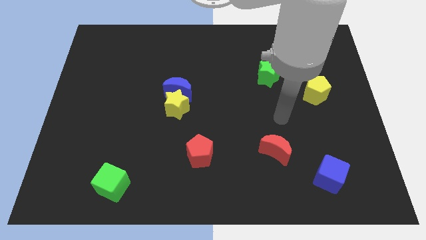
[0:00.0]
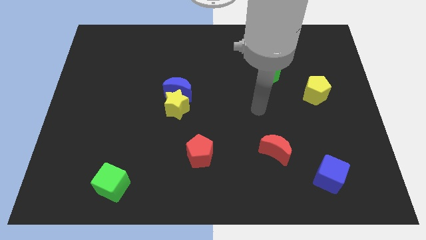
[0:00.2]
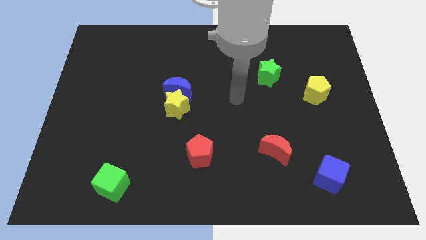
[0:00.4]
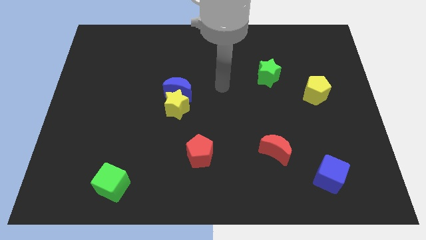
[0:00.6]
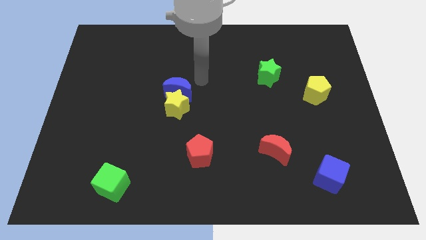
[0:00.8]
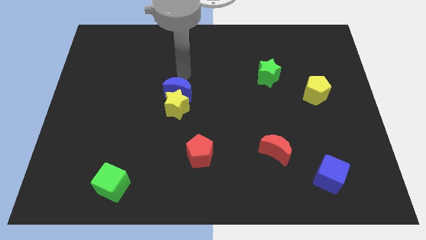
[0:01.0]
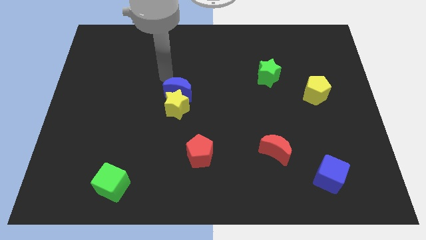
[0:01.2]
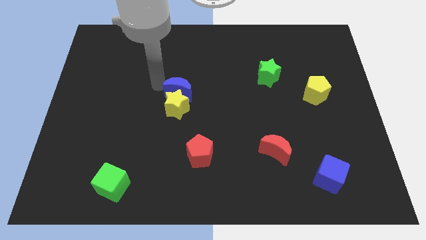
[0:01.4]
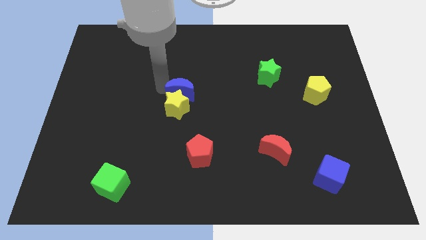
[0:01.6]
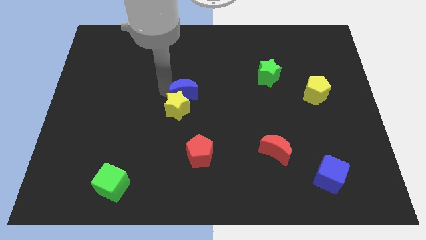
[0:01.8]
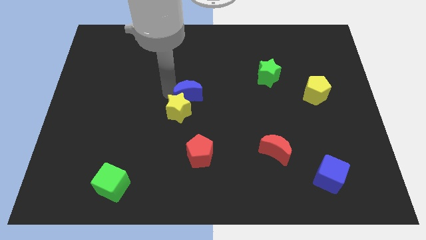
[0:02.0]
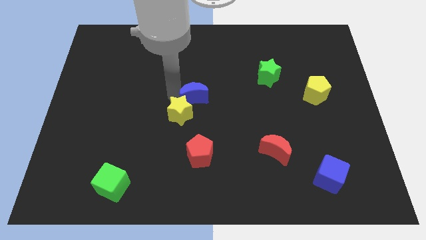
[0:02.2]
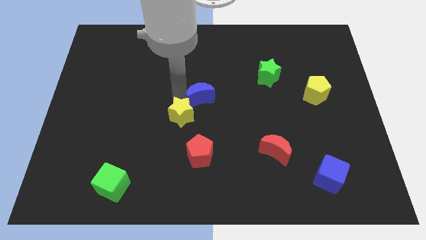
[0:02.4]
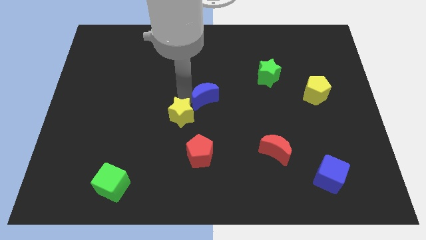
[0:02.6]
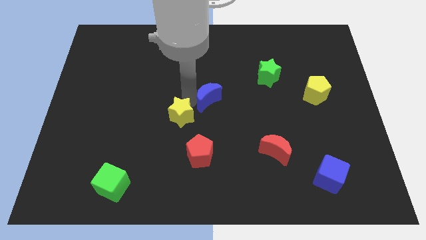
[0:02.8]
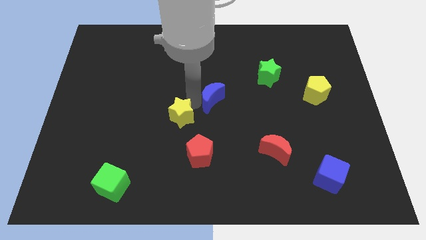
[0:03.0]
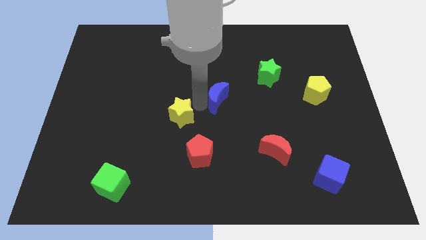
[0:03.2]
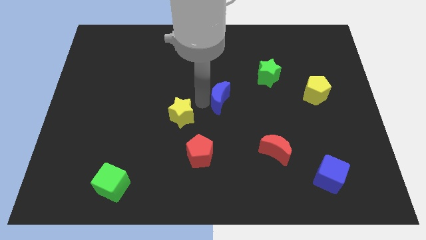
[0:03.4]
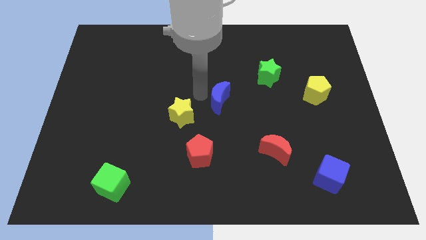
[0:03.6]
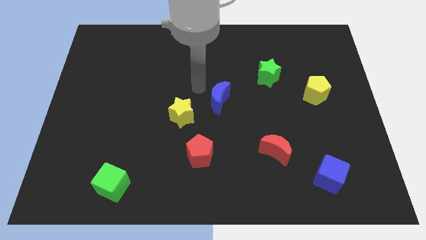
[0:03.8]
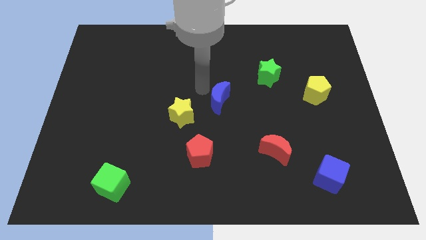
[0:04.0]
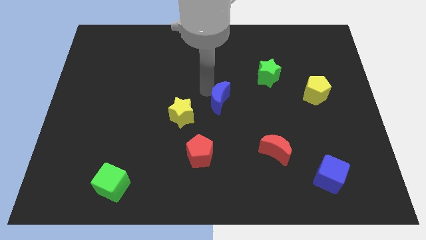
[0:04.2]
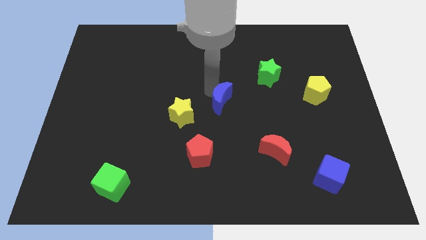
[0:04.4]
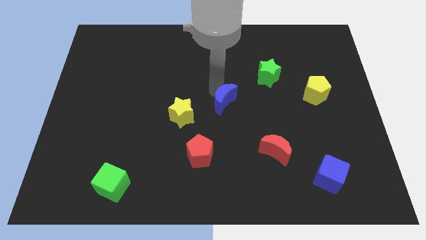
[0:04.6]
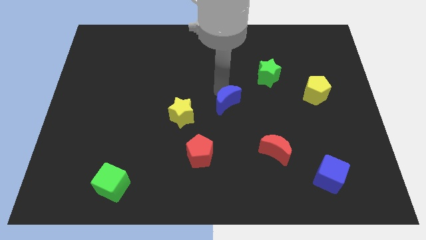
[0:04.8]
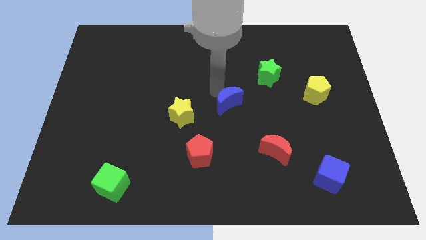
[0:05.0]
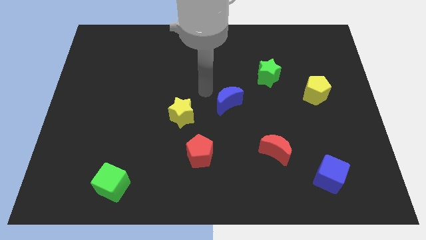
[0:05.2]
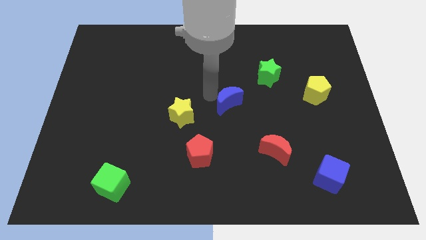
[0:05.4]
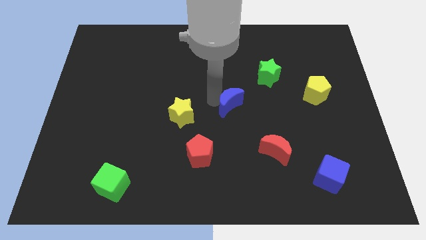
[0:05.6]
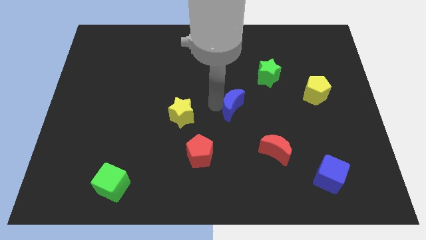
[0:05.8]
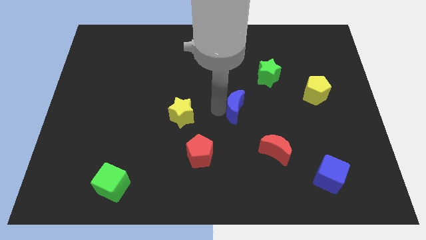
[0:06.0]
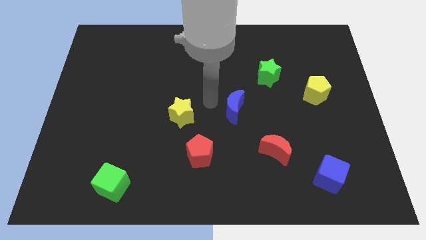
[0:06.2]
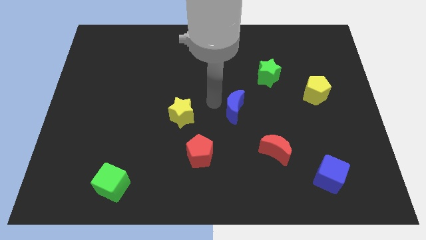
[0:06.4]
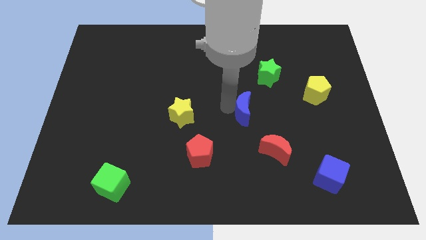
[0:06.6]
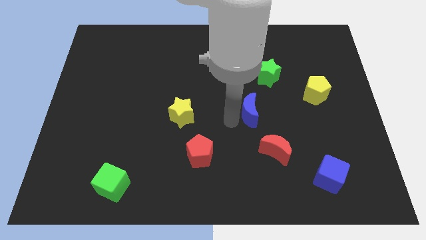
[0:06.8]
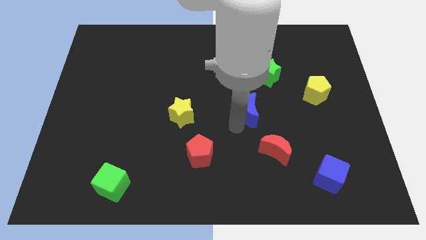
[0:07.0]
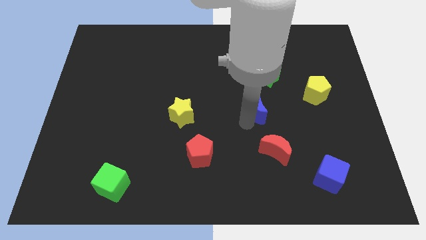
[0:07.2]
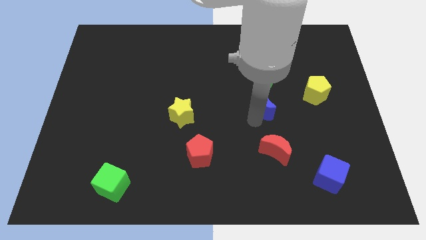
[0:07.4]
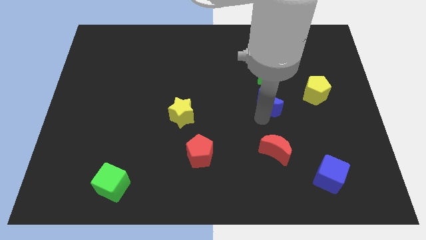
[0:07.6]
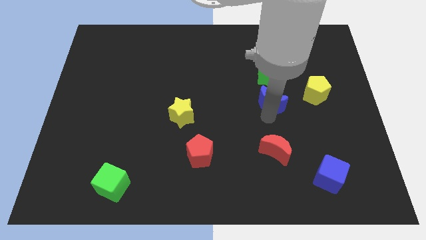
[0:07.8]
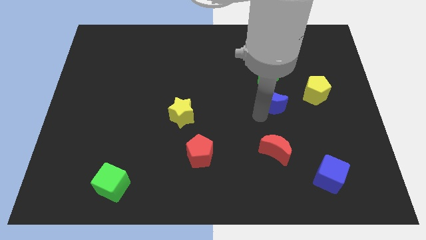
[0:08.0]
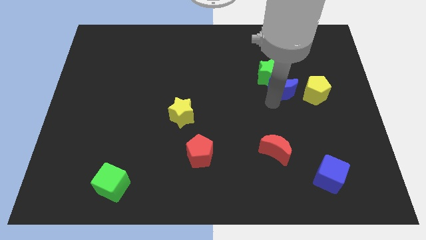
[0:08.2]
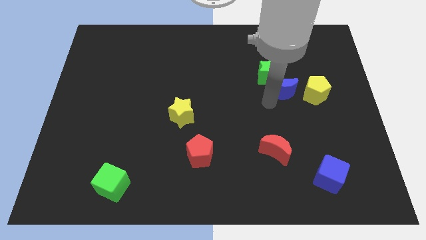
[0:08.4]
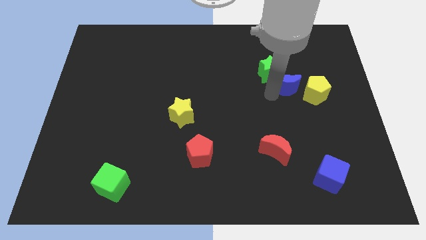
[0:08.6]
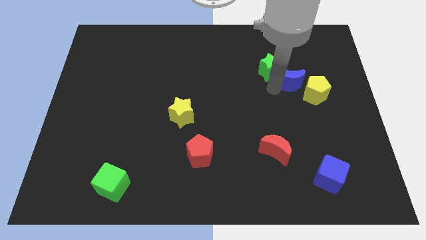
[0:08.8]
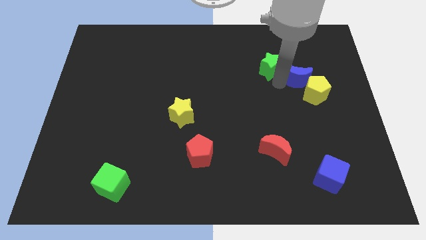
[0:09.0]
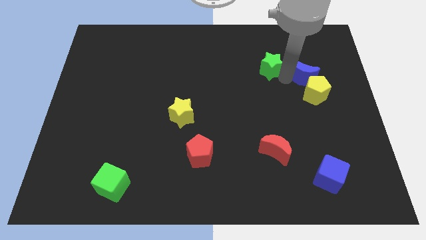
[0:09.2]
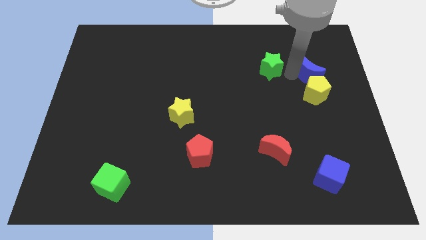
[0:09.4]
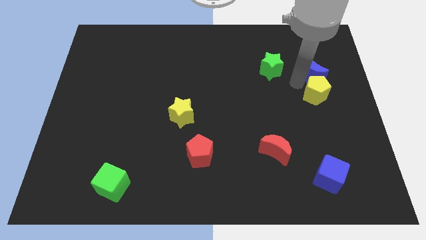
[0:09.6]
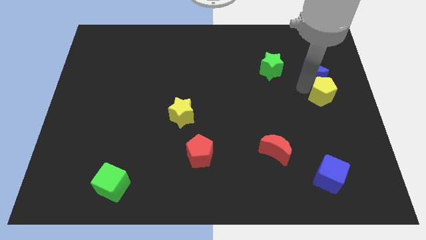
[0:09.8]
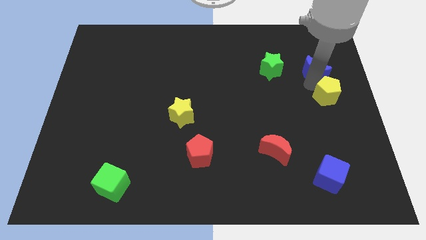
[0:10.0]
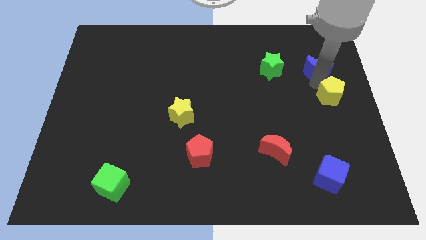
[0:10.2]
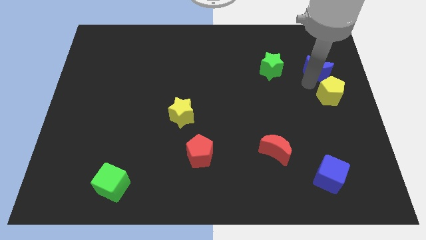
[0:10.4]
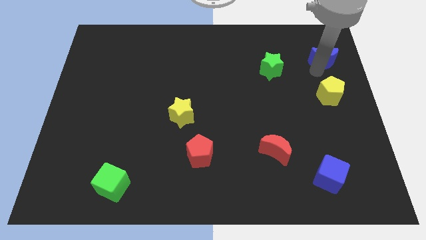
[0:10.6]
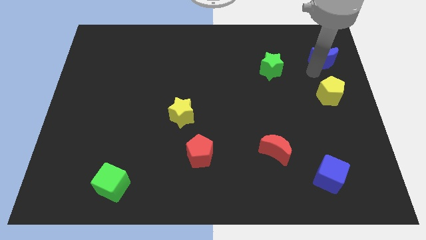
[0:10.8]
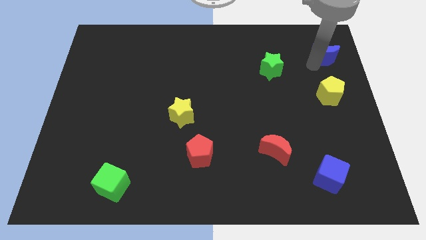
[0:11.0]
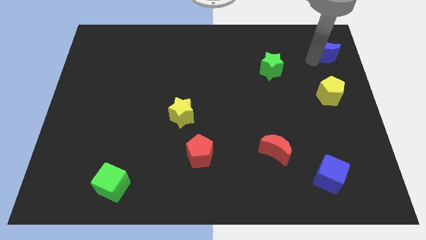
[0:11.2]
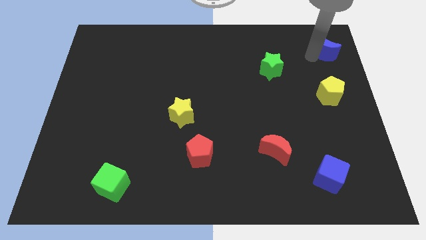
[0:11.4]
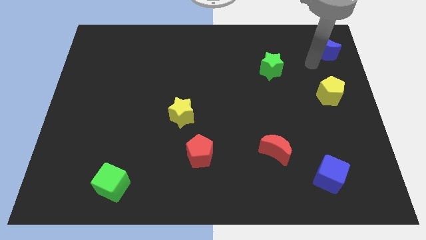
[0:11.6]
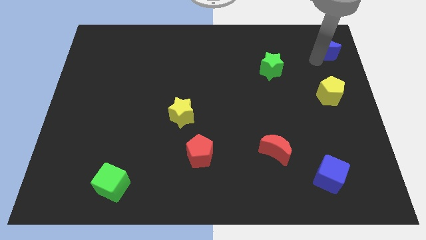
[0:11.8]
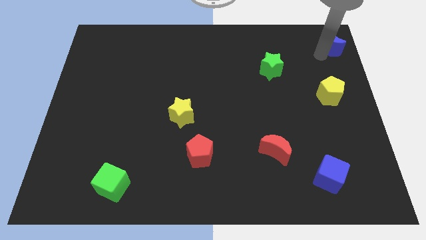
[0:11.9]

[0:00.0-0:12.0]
slide the blue moon to the top right

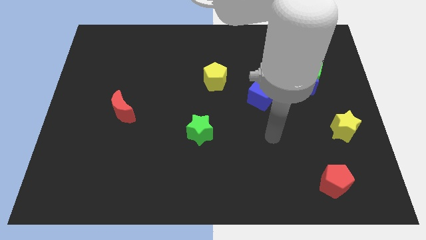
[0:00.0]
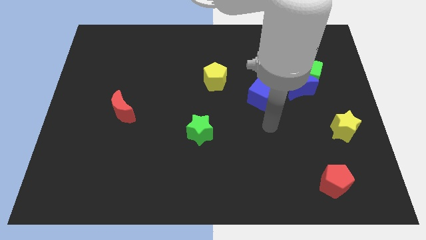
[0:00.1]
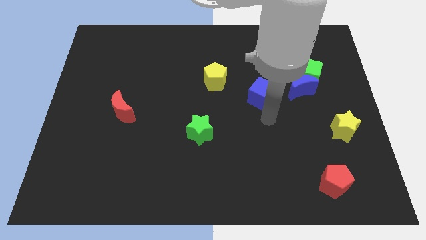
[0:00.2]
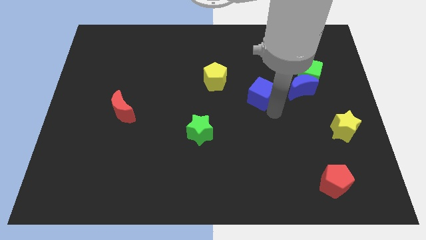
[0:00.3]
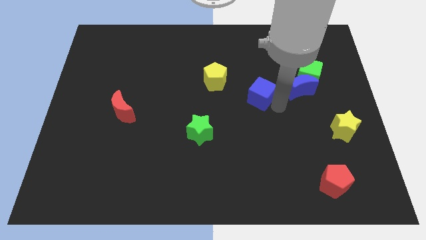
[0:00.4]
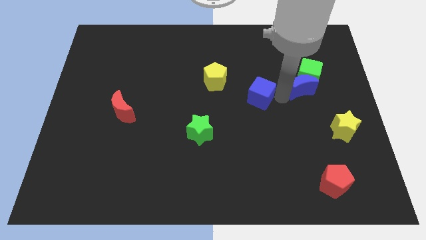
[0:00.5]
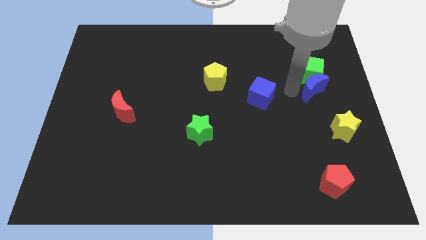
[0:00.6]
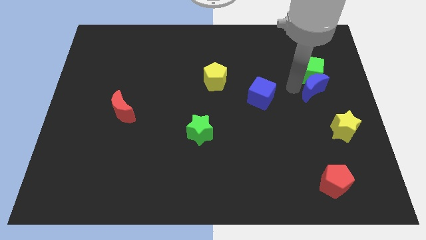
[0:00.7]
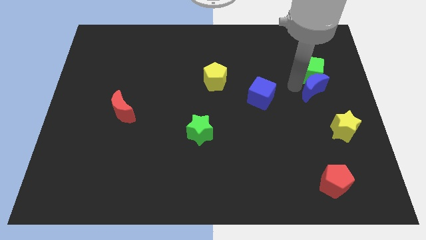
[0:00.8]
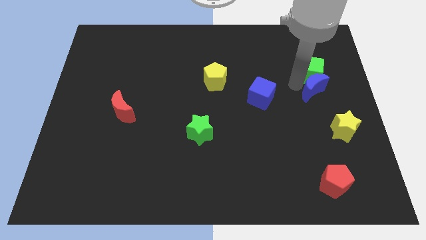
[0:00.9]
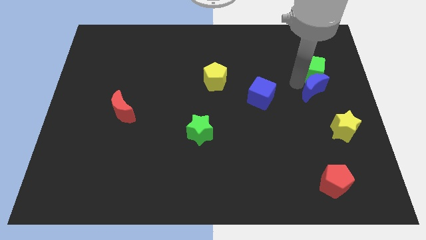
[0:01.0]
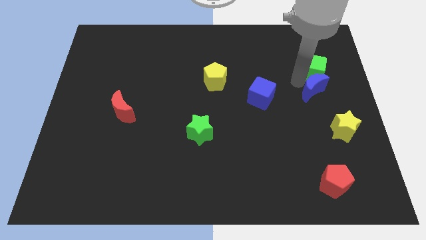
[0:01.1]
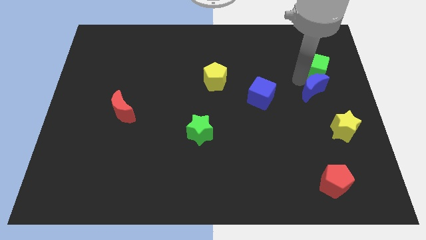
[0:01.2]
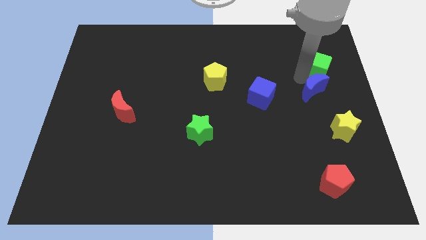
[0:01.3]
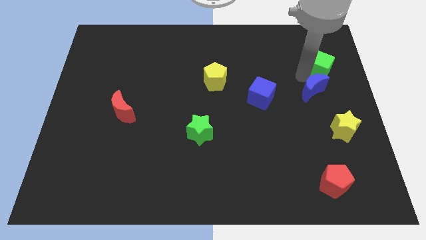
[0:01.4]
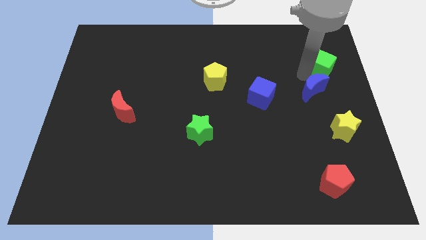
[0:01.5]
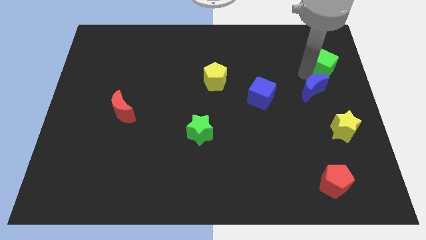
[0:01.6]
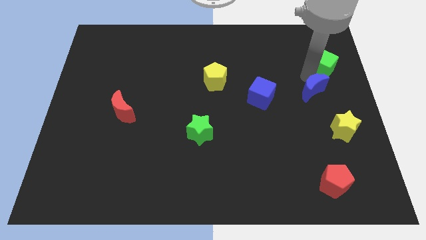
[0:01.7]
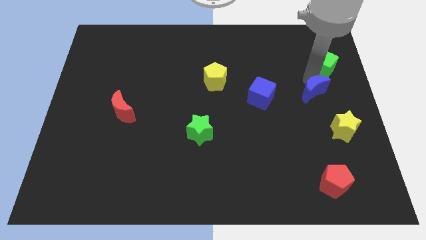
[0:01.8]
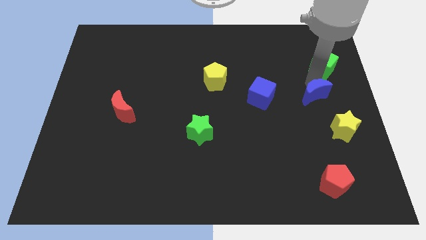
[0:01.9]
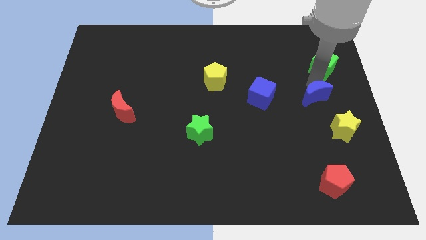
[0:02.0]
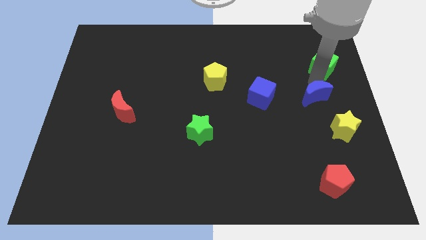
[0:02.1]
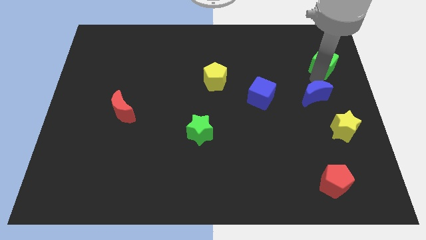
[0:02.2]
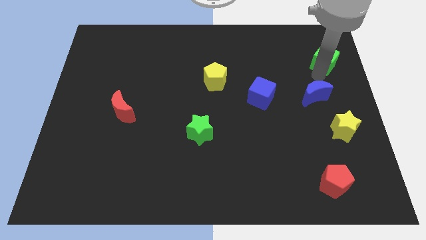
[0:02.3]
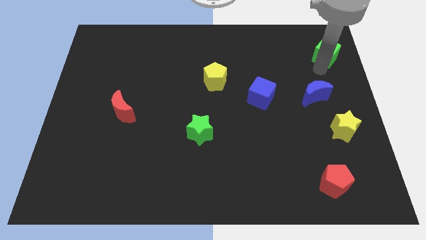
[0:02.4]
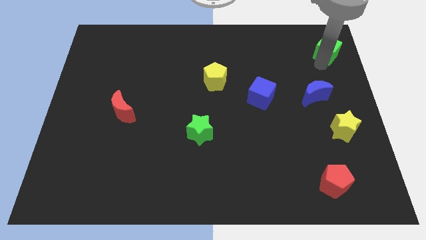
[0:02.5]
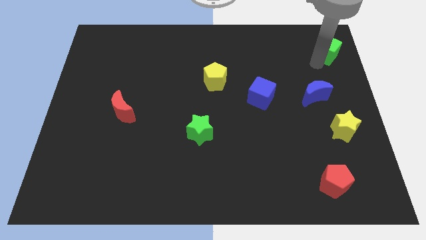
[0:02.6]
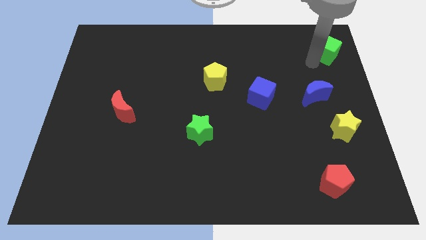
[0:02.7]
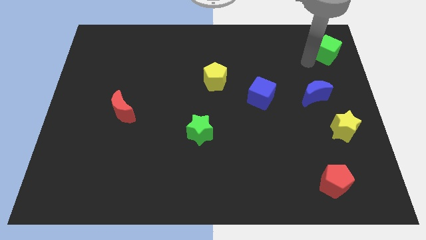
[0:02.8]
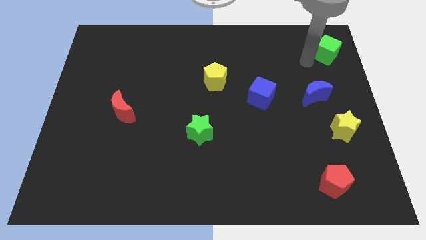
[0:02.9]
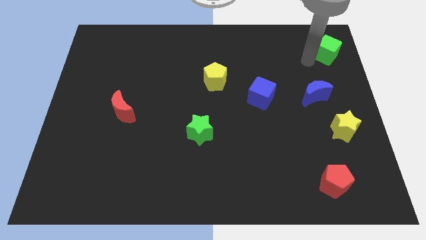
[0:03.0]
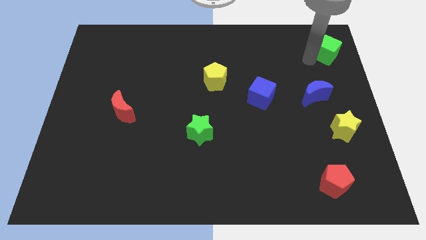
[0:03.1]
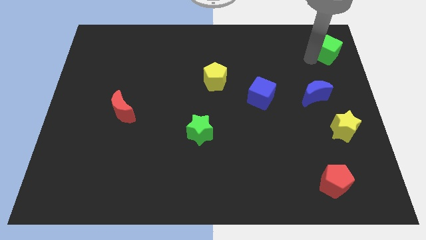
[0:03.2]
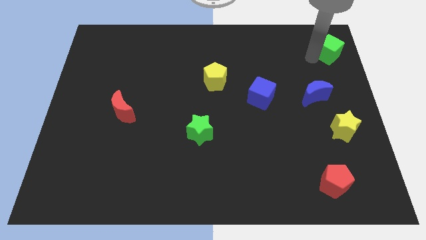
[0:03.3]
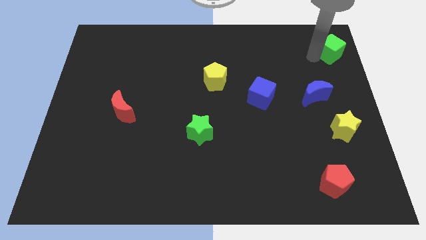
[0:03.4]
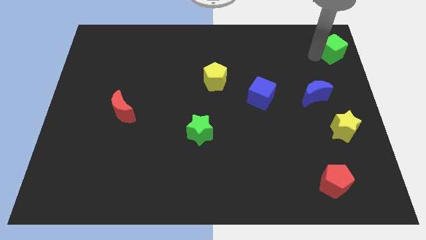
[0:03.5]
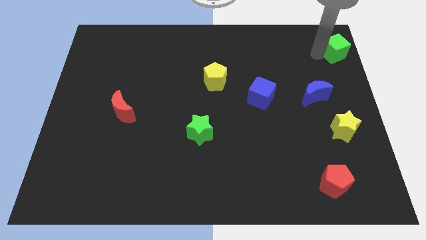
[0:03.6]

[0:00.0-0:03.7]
slide the green cube to the upper right corner
